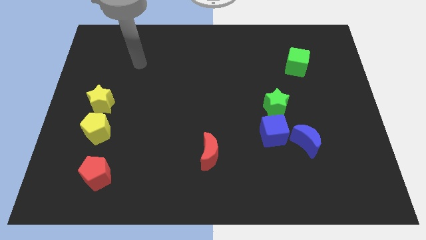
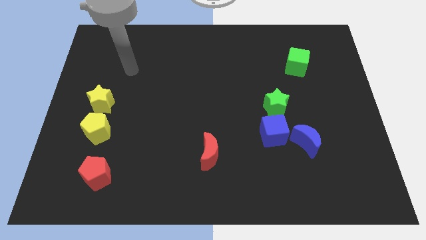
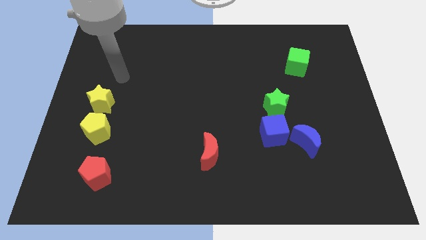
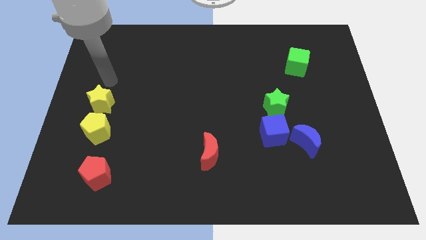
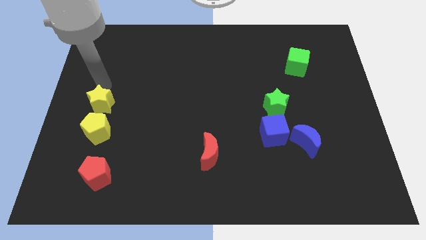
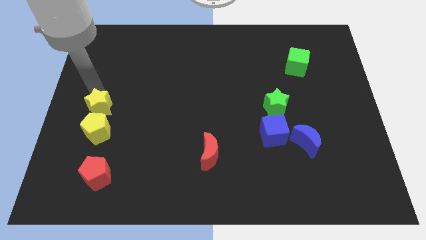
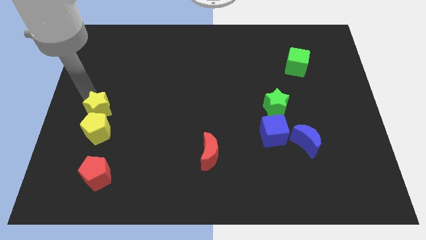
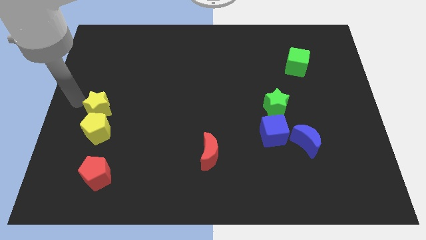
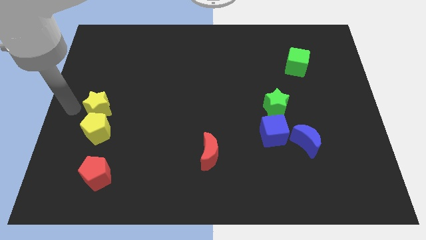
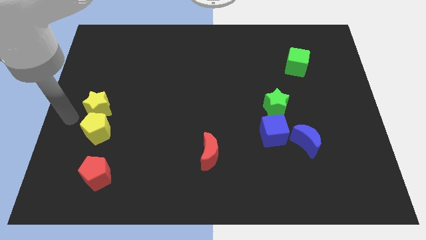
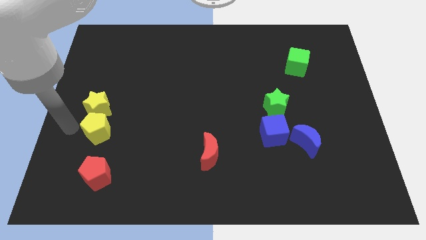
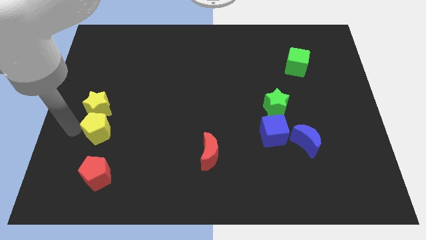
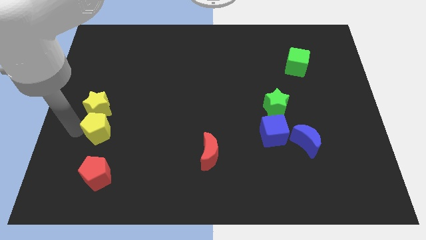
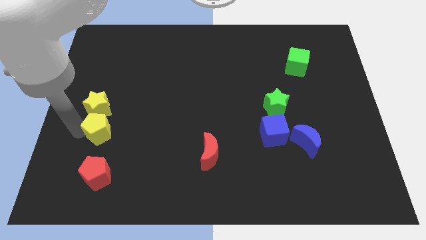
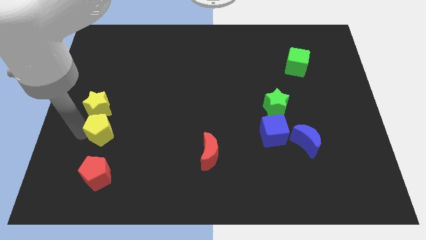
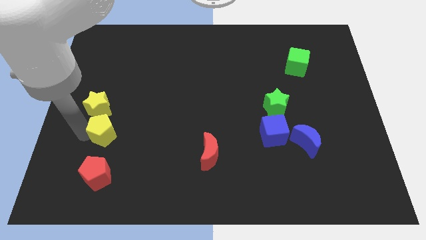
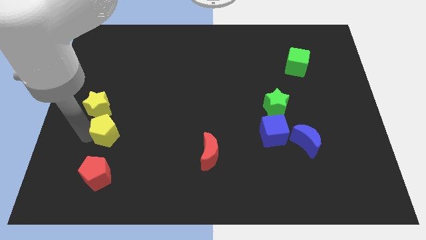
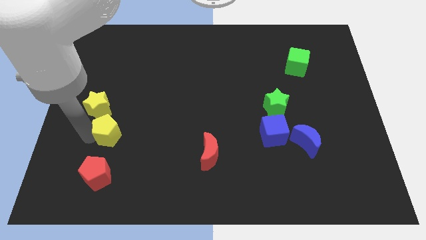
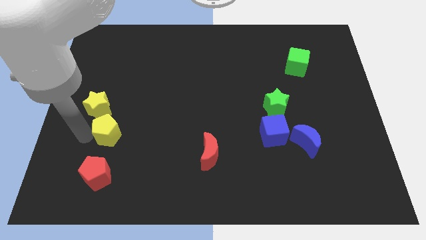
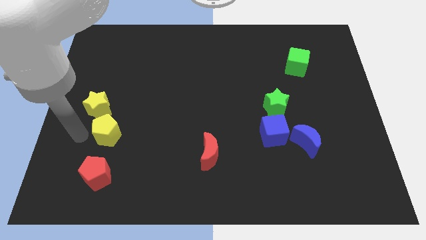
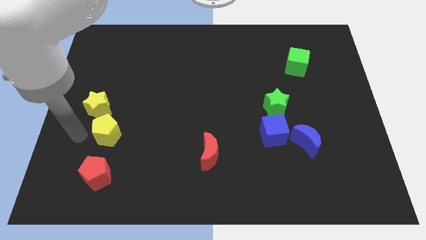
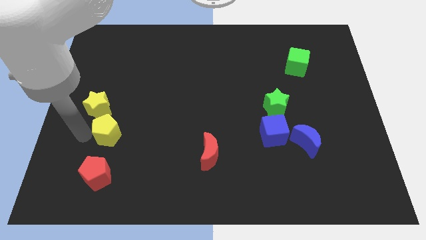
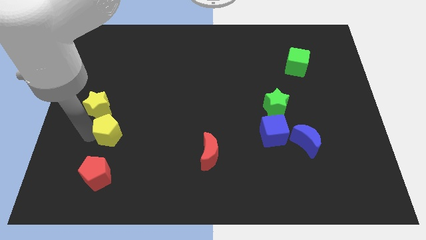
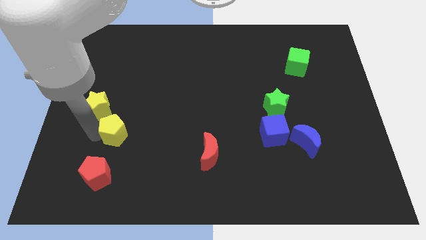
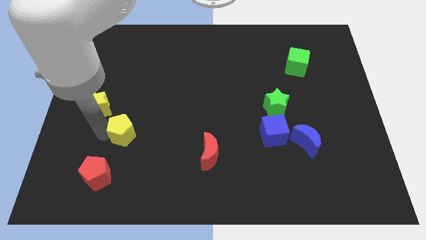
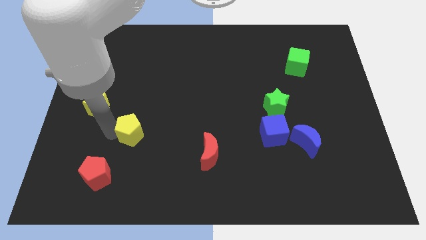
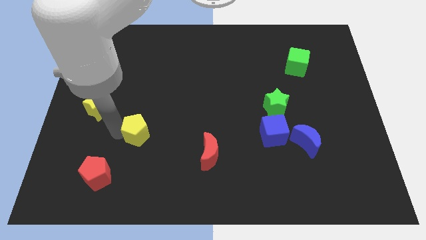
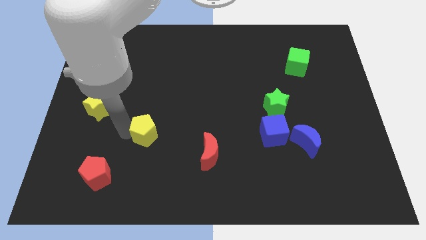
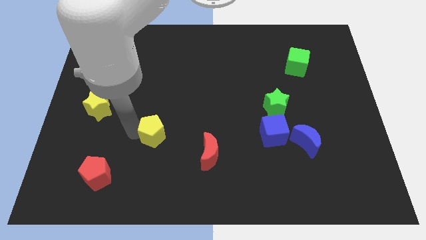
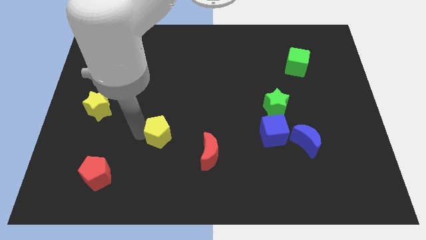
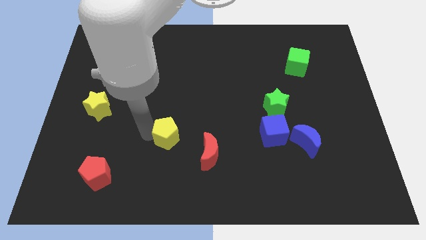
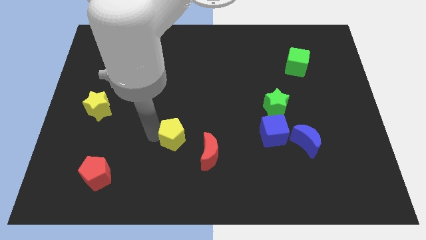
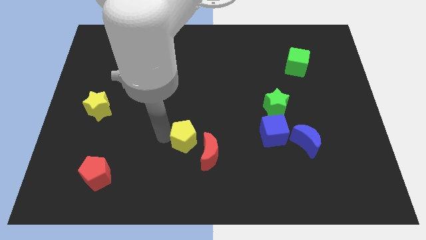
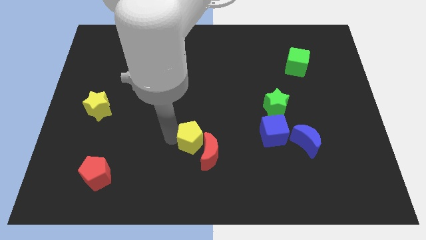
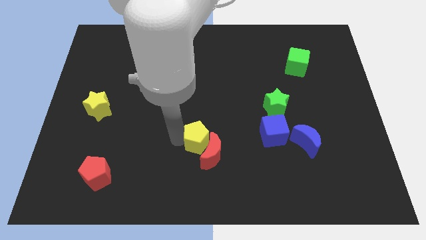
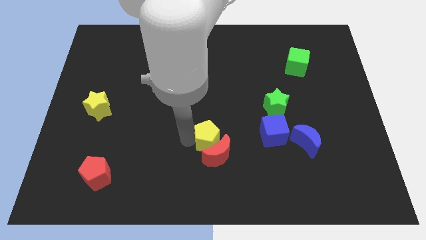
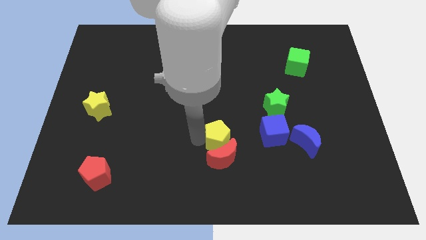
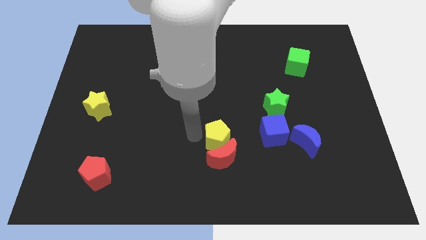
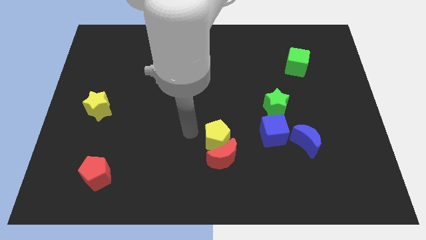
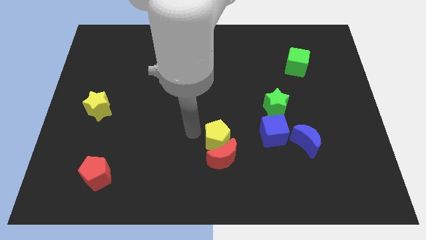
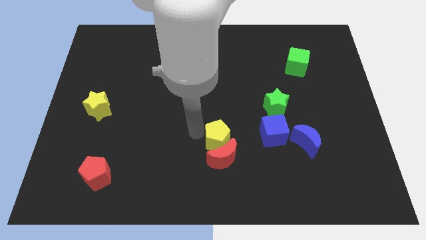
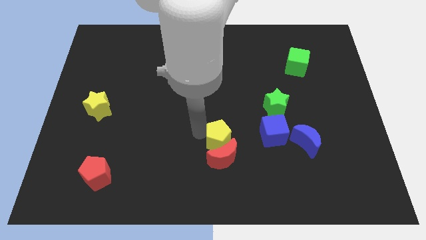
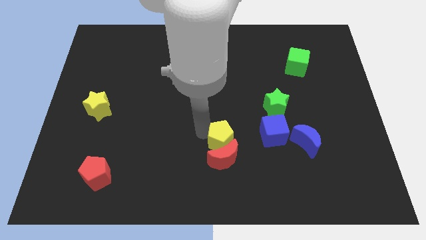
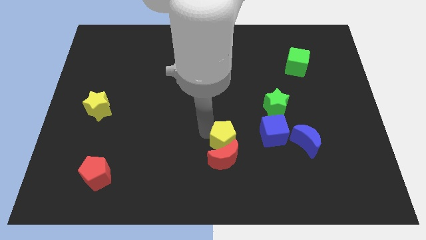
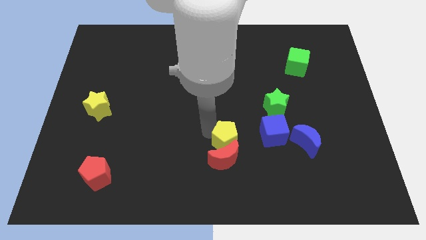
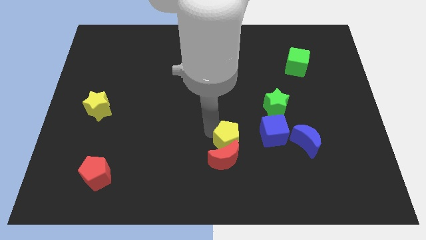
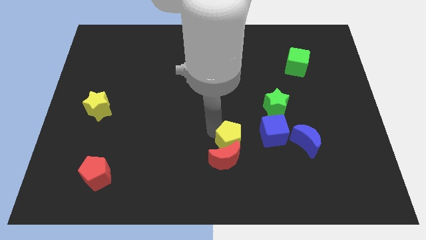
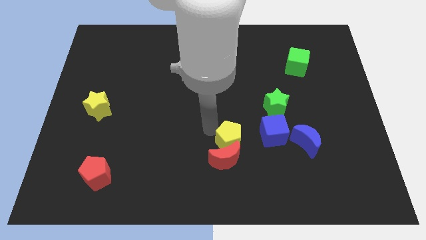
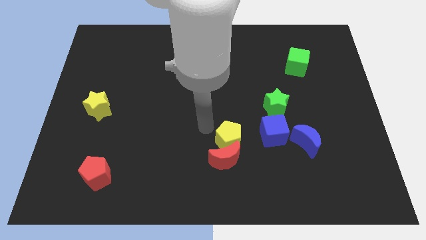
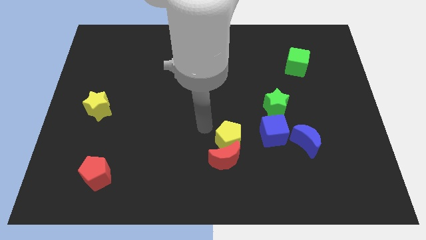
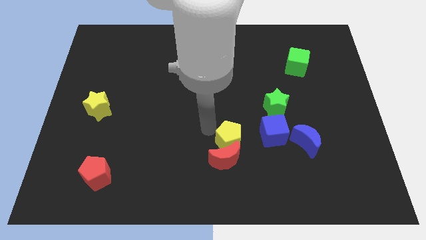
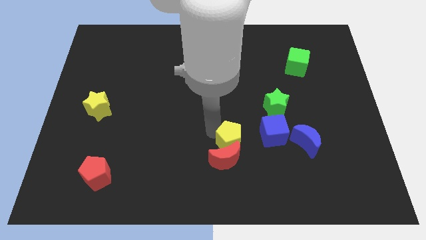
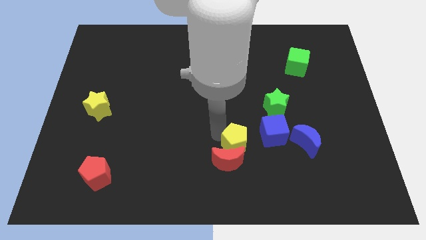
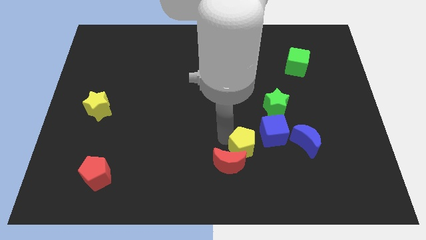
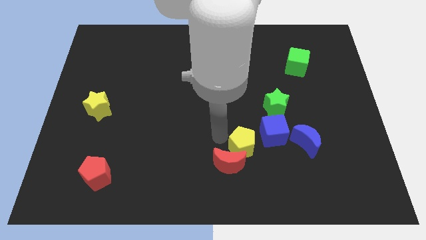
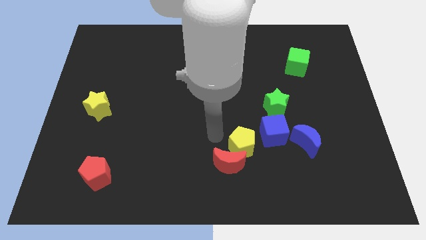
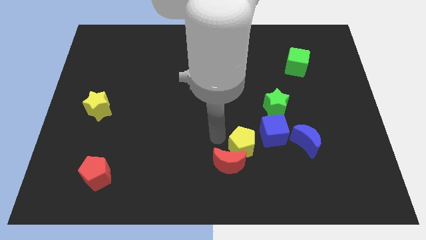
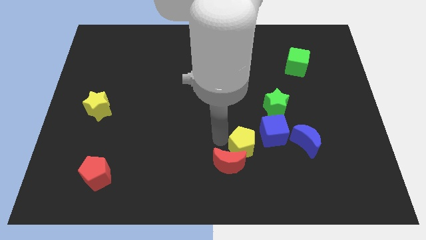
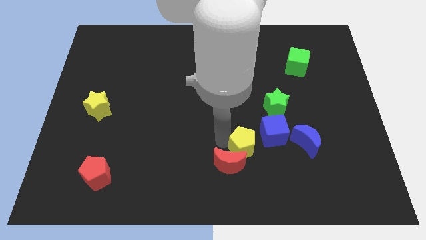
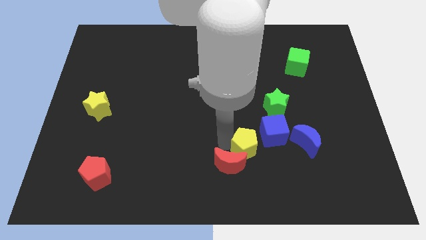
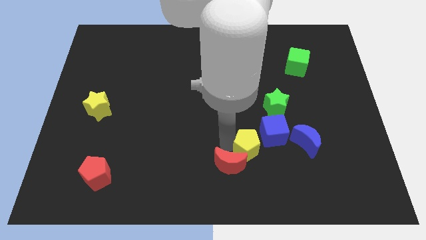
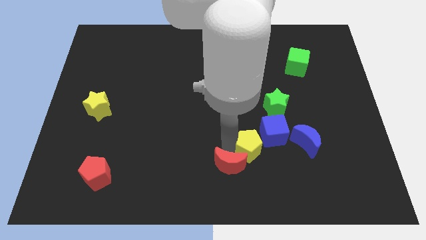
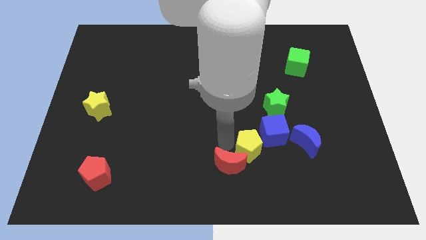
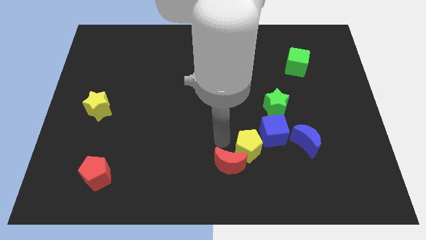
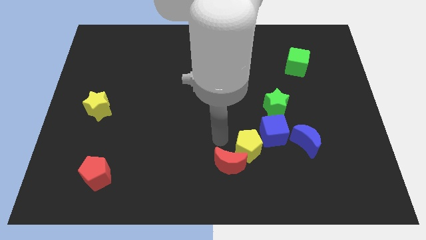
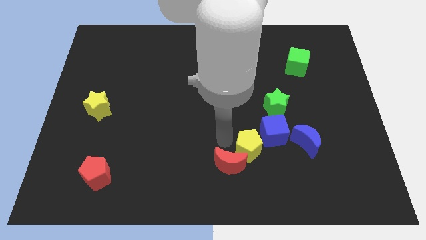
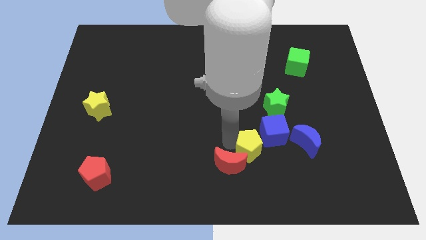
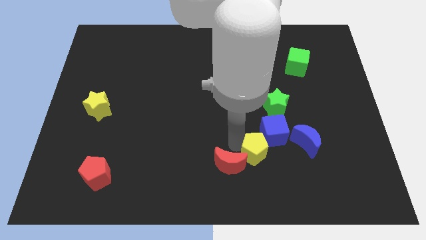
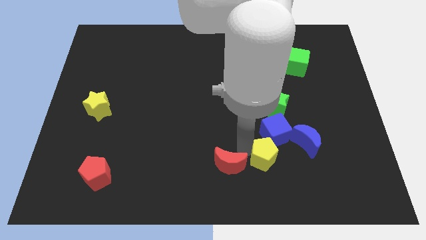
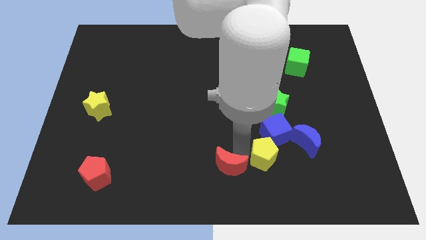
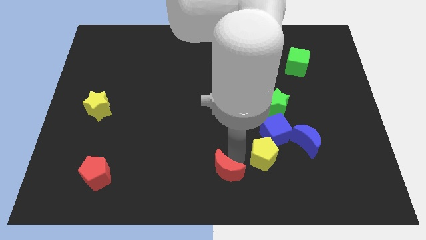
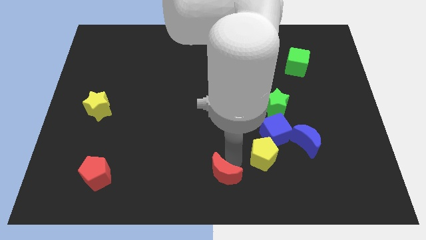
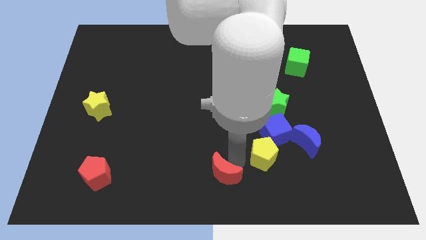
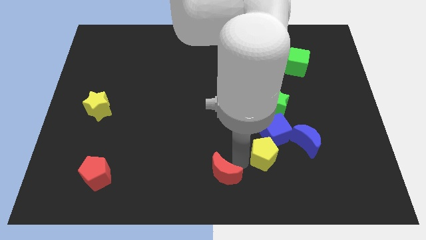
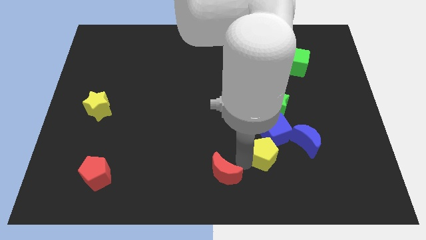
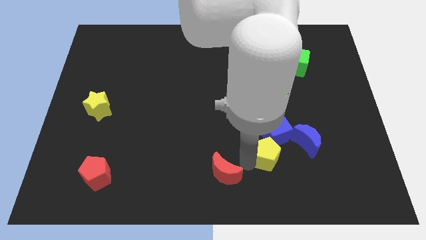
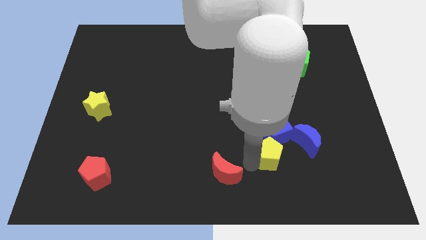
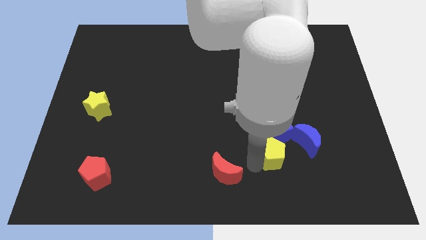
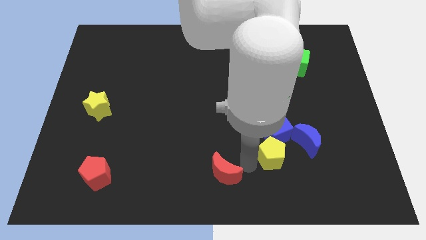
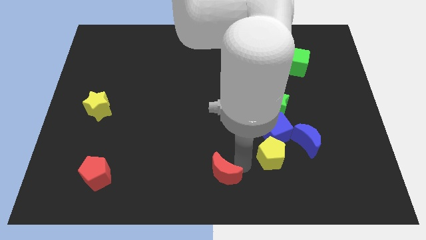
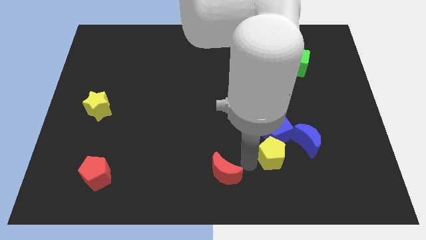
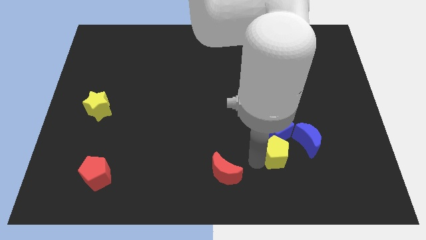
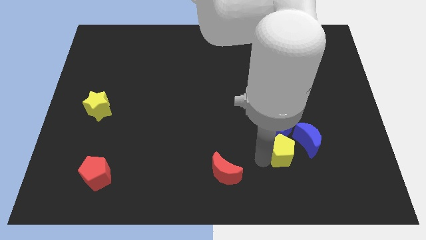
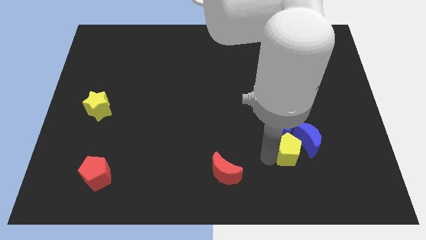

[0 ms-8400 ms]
slide the yellow pentagon next to the blue moon
